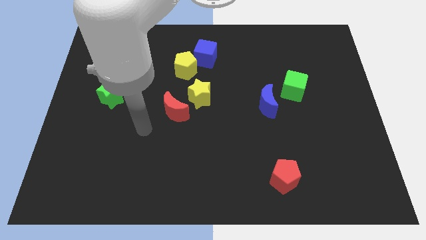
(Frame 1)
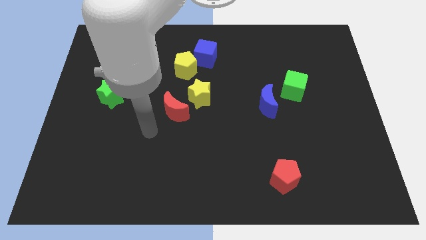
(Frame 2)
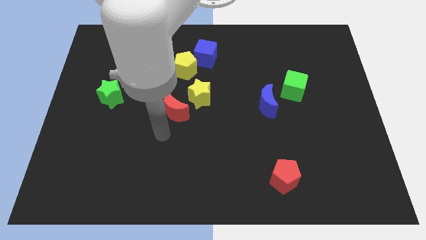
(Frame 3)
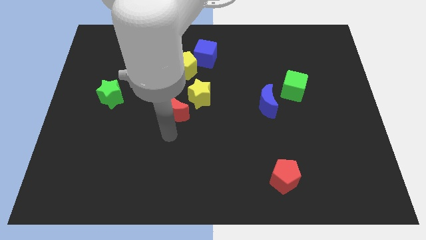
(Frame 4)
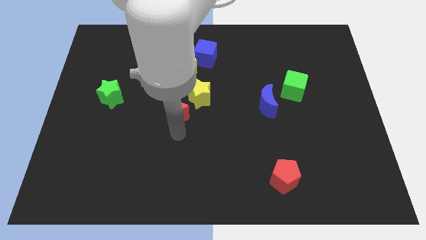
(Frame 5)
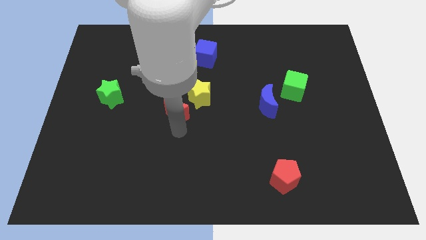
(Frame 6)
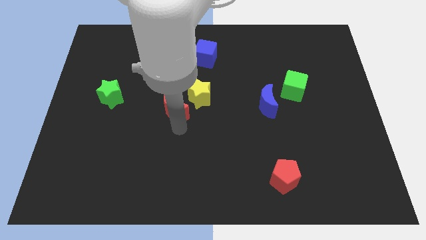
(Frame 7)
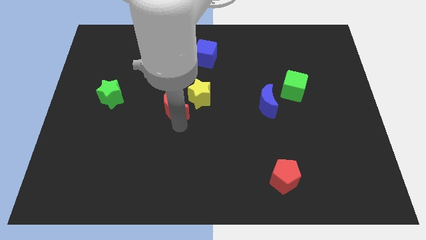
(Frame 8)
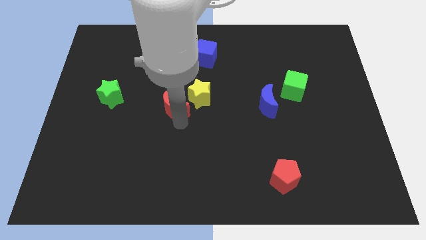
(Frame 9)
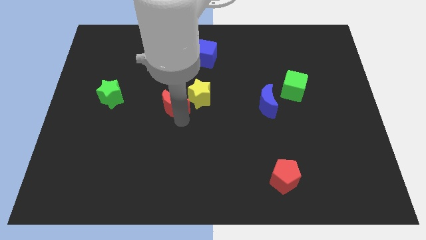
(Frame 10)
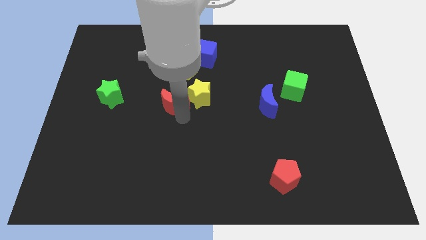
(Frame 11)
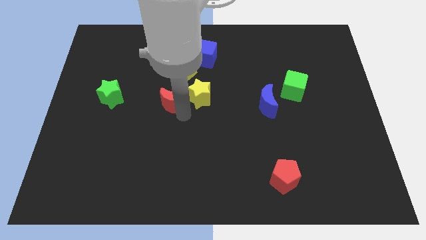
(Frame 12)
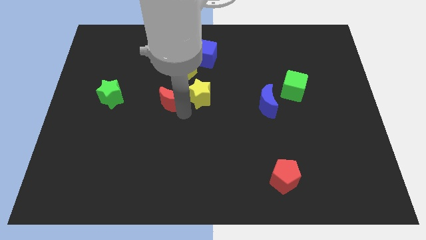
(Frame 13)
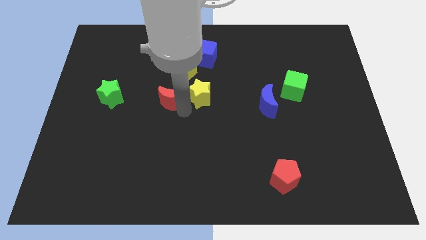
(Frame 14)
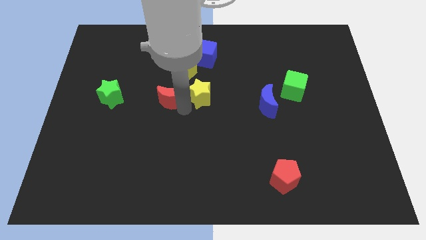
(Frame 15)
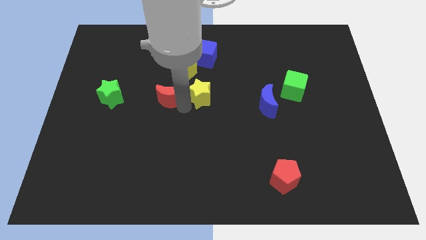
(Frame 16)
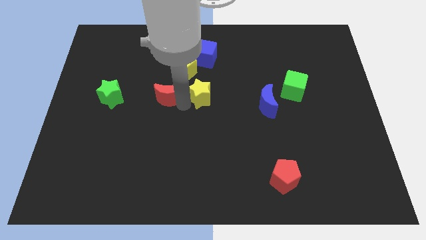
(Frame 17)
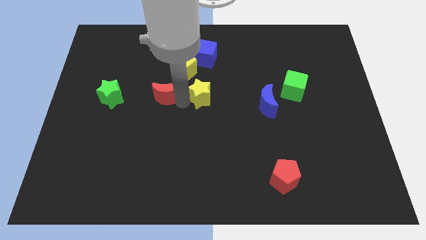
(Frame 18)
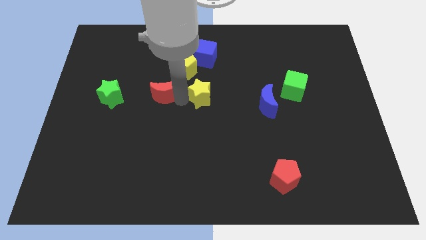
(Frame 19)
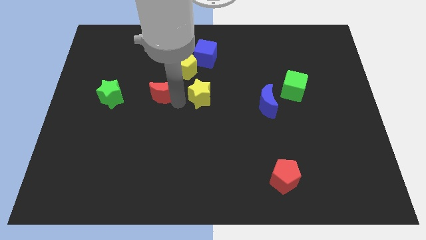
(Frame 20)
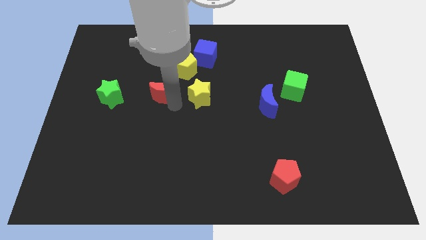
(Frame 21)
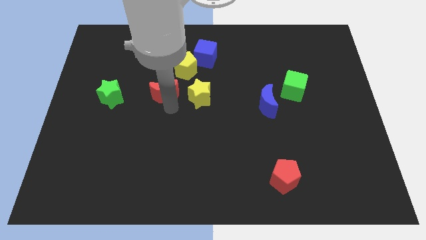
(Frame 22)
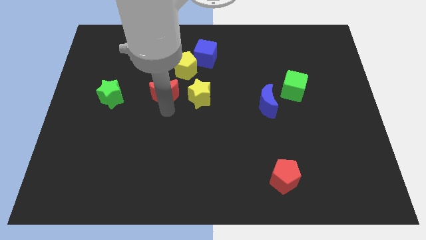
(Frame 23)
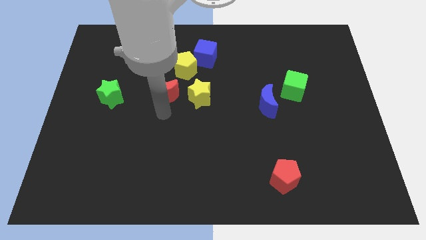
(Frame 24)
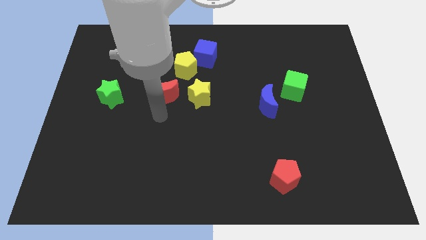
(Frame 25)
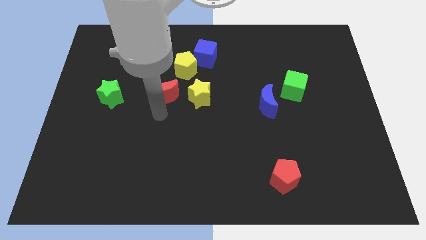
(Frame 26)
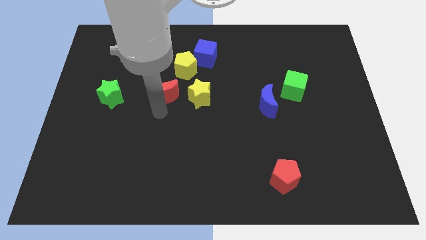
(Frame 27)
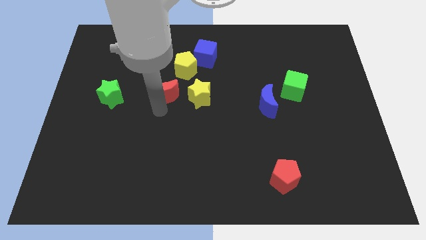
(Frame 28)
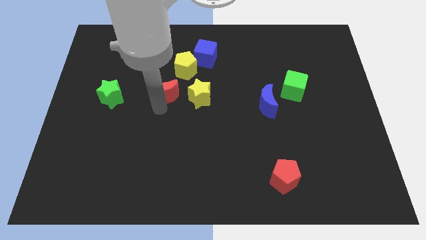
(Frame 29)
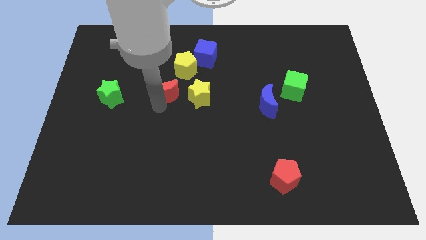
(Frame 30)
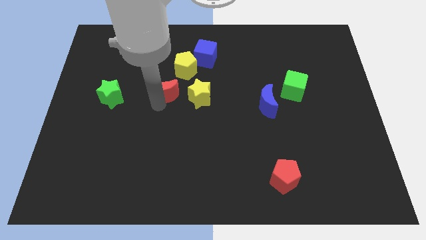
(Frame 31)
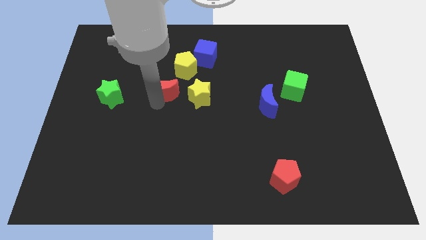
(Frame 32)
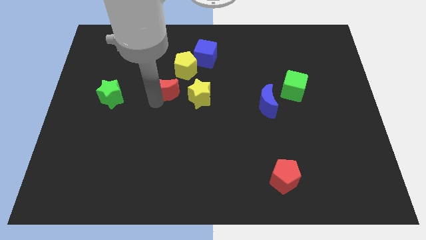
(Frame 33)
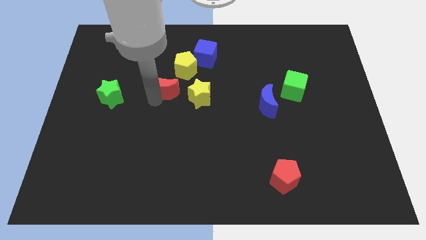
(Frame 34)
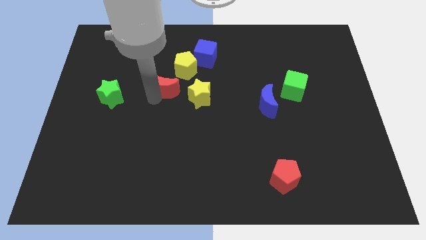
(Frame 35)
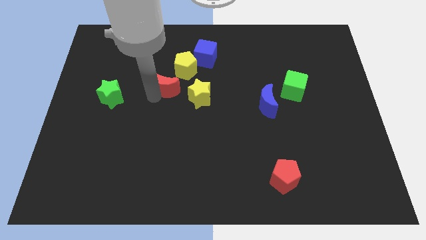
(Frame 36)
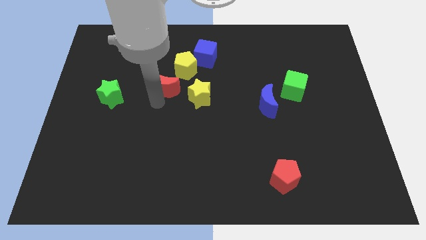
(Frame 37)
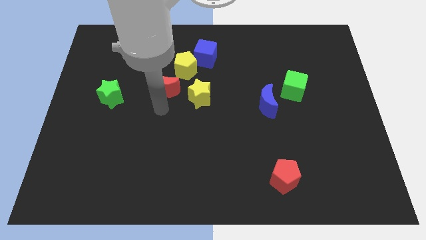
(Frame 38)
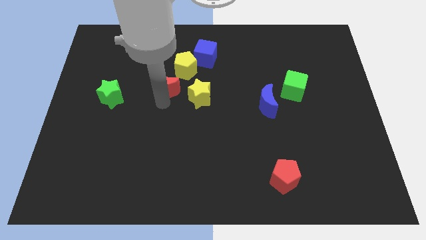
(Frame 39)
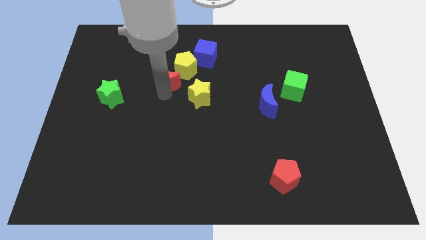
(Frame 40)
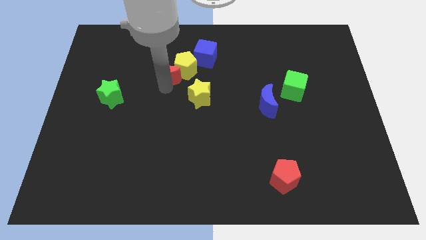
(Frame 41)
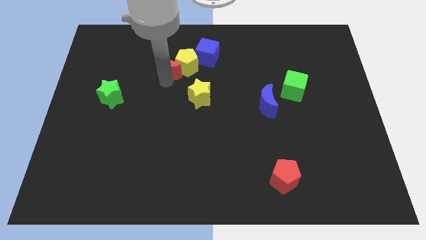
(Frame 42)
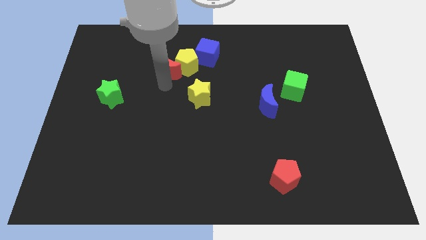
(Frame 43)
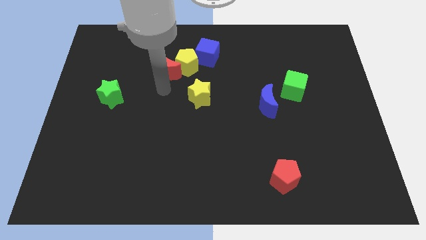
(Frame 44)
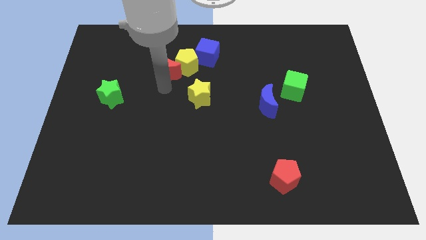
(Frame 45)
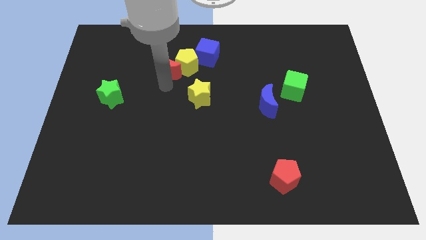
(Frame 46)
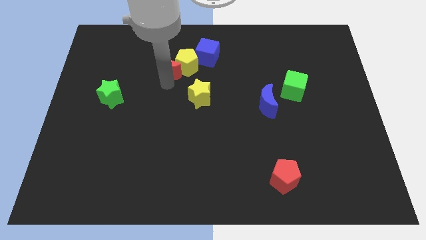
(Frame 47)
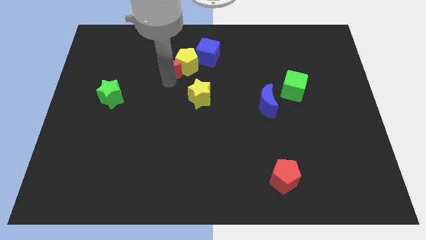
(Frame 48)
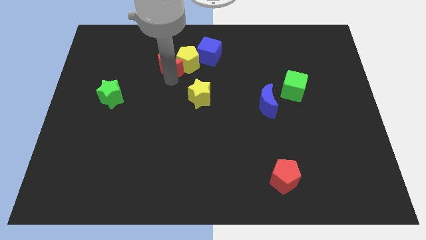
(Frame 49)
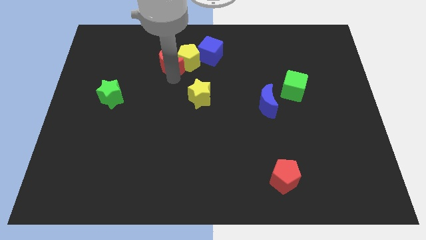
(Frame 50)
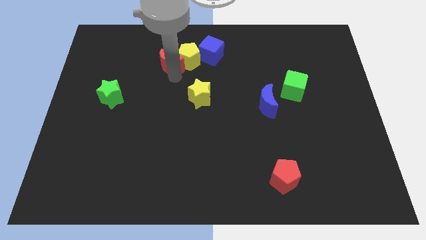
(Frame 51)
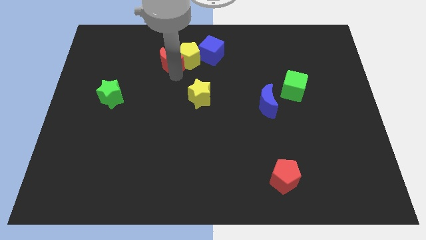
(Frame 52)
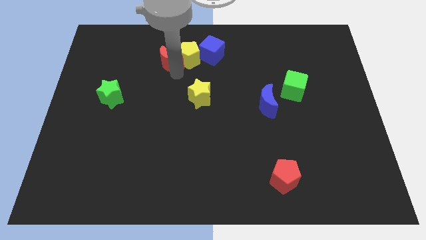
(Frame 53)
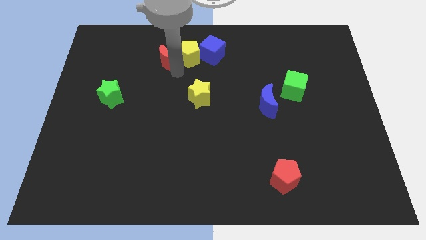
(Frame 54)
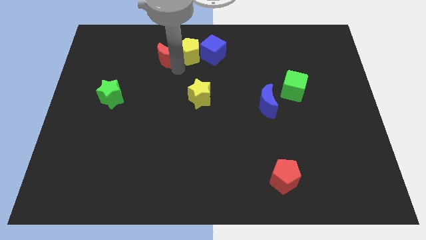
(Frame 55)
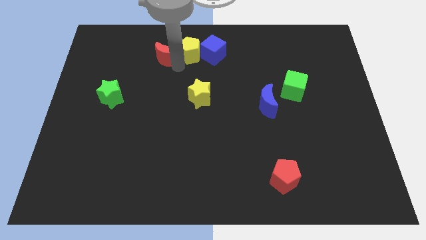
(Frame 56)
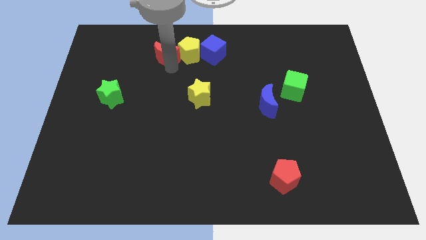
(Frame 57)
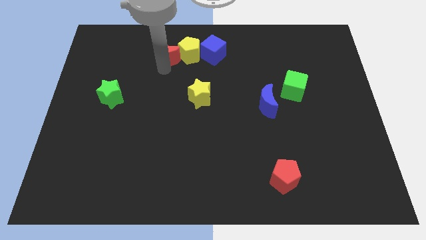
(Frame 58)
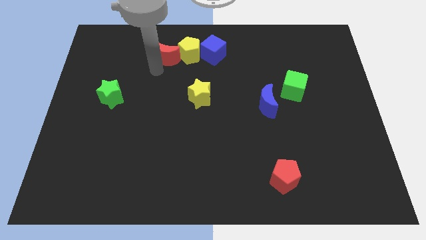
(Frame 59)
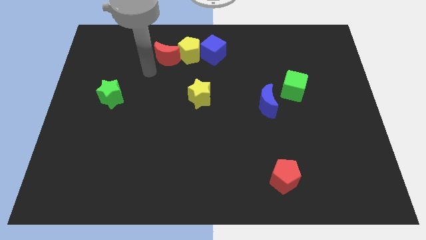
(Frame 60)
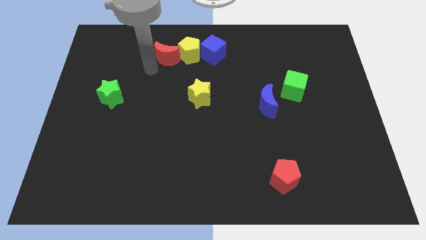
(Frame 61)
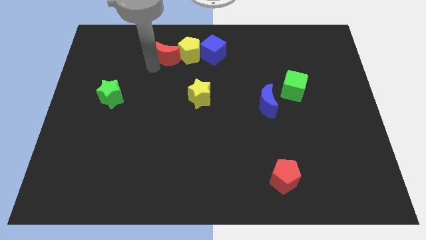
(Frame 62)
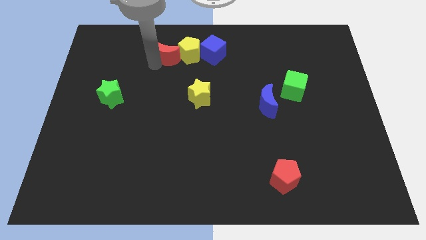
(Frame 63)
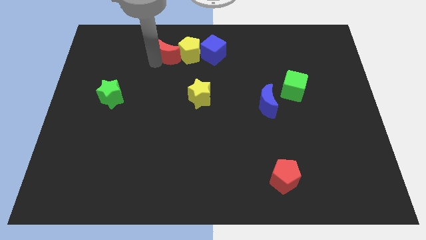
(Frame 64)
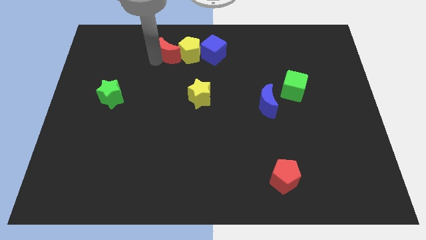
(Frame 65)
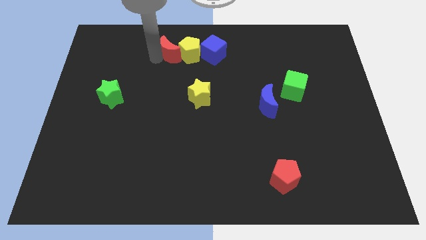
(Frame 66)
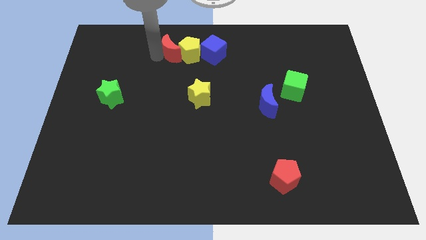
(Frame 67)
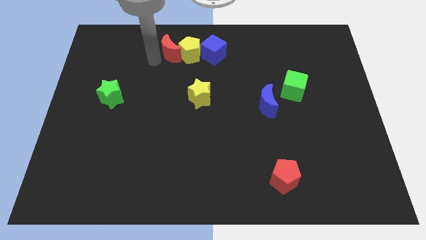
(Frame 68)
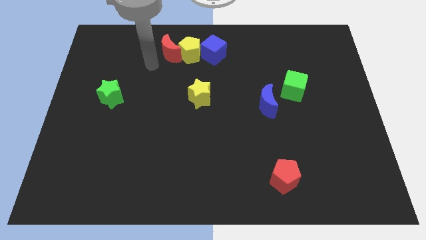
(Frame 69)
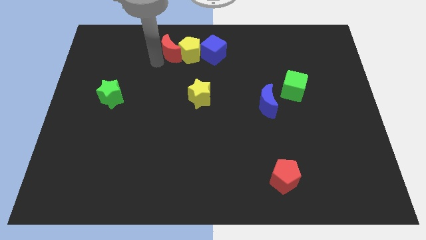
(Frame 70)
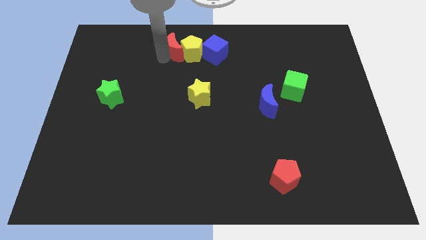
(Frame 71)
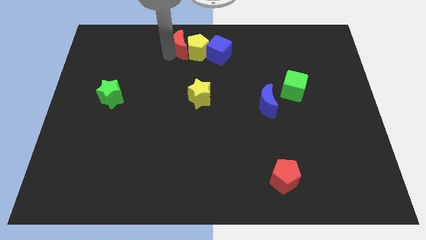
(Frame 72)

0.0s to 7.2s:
move the red moon to the top
